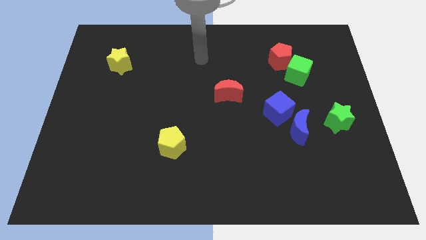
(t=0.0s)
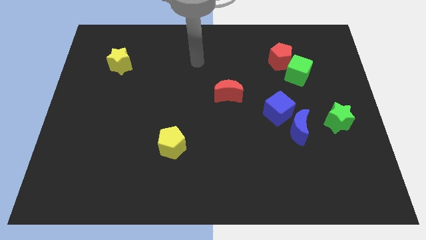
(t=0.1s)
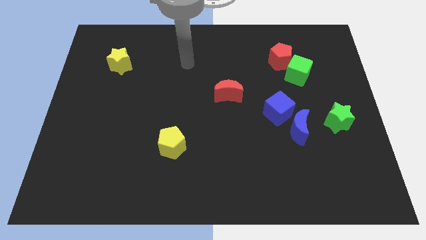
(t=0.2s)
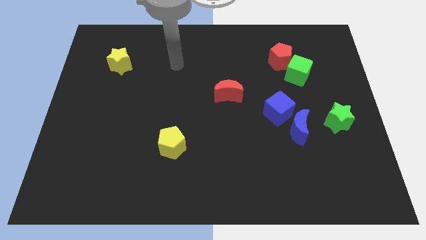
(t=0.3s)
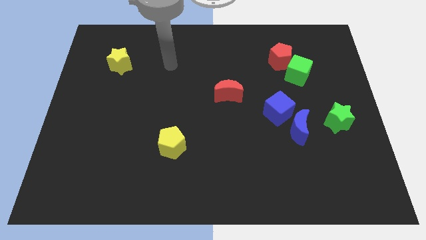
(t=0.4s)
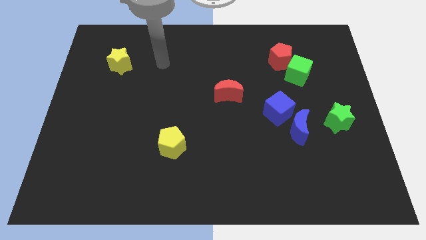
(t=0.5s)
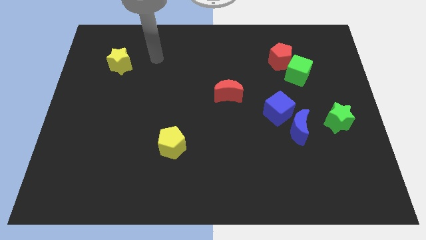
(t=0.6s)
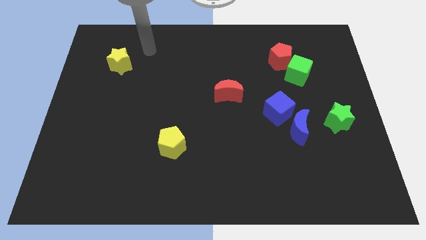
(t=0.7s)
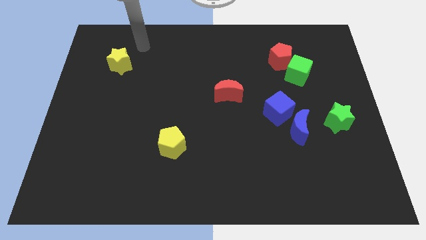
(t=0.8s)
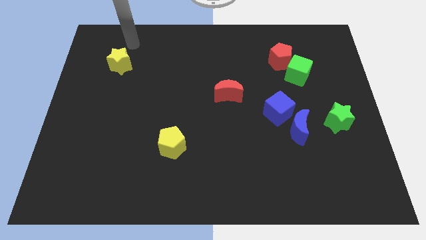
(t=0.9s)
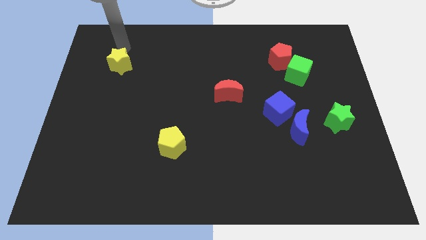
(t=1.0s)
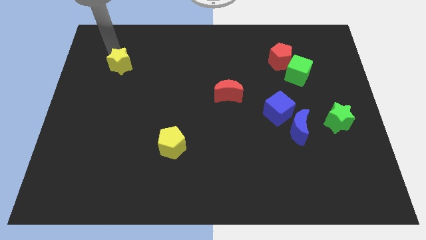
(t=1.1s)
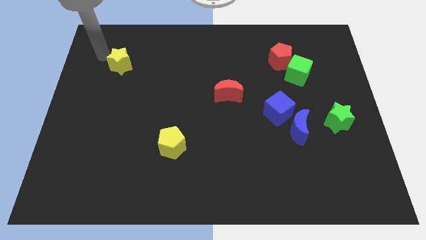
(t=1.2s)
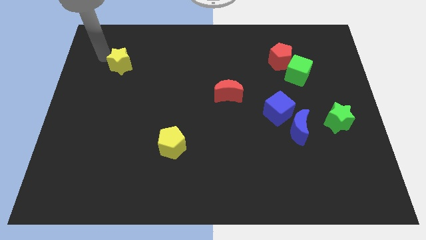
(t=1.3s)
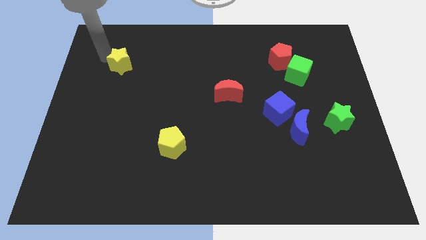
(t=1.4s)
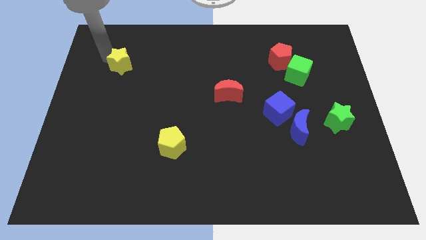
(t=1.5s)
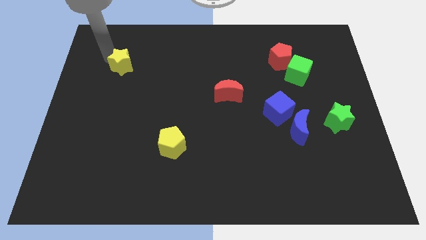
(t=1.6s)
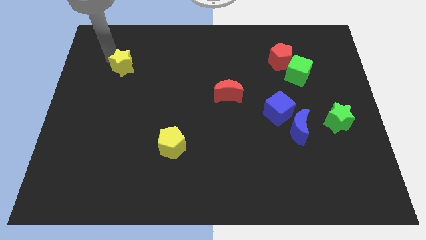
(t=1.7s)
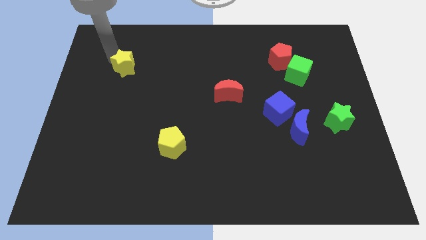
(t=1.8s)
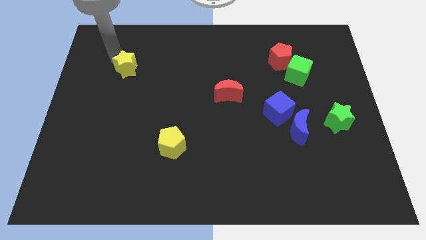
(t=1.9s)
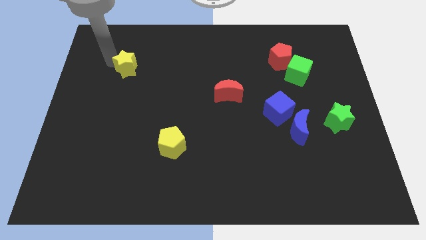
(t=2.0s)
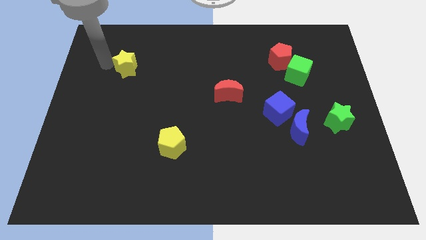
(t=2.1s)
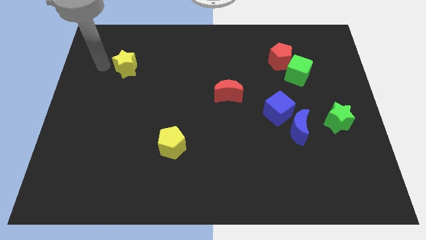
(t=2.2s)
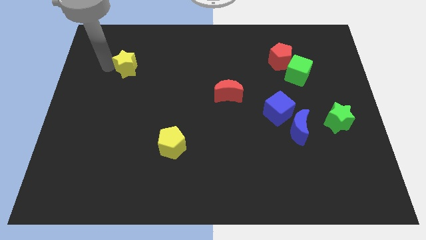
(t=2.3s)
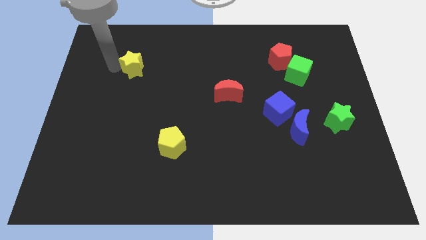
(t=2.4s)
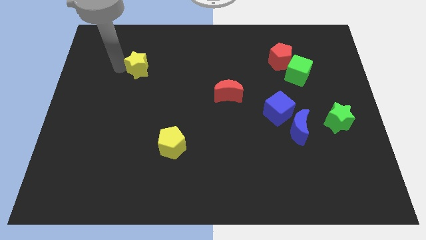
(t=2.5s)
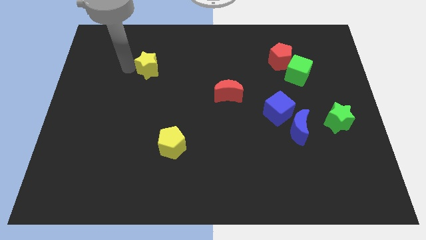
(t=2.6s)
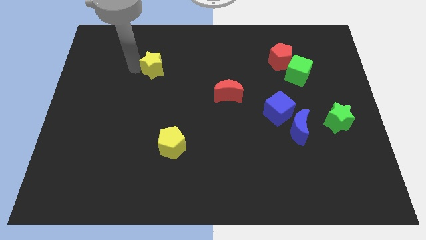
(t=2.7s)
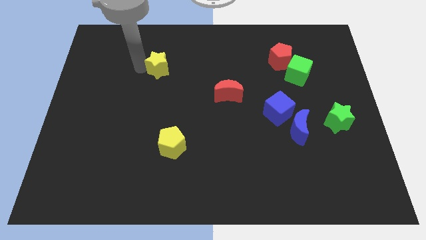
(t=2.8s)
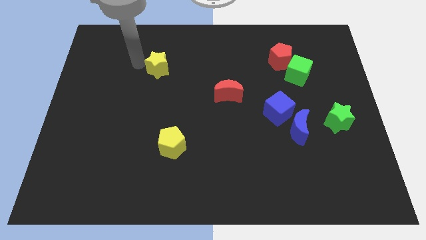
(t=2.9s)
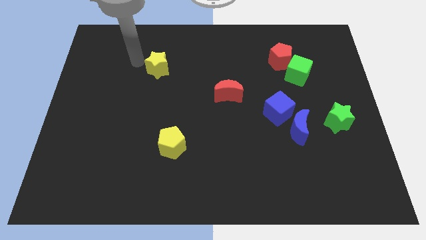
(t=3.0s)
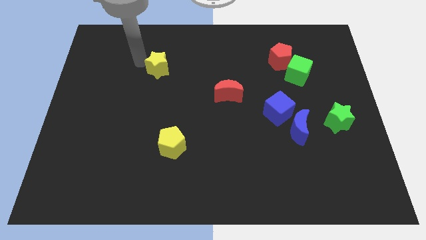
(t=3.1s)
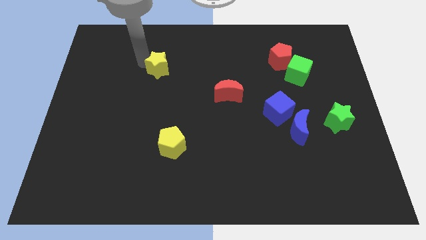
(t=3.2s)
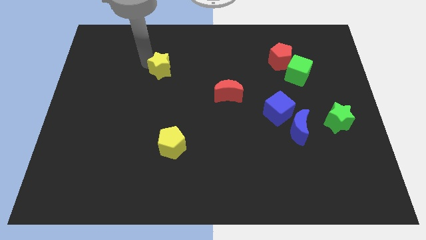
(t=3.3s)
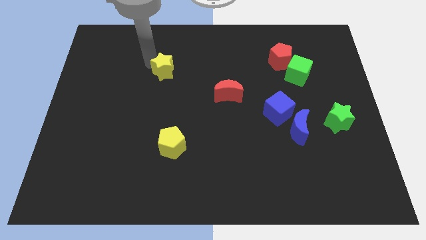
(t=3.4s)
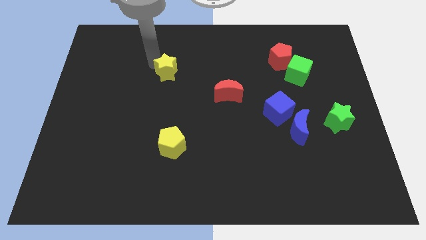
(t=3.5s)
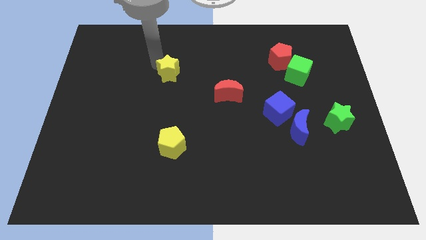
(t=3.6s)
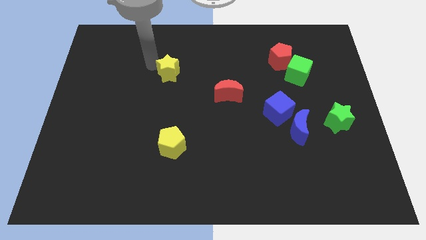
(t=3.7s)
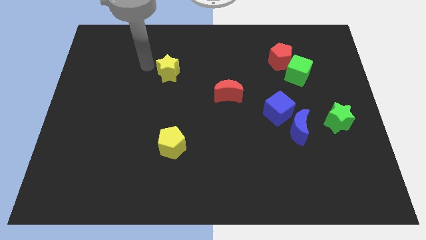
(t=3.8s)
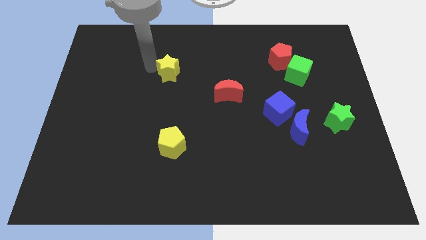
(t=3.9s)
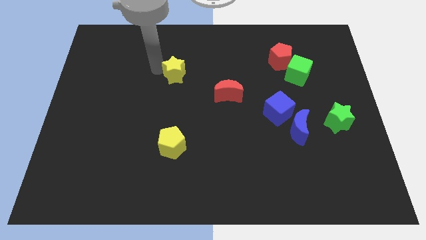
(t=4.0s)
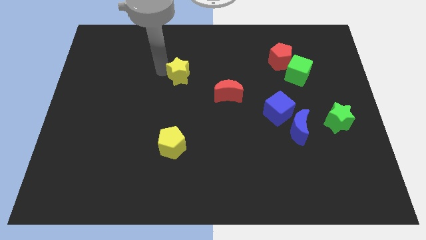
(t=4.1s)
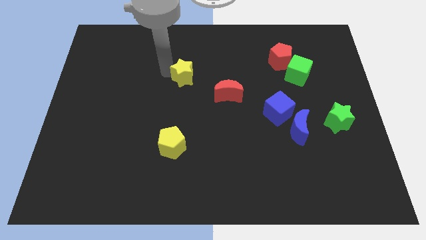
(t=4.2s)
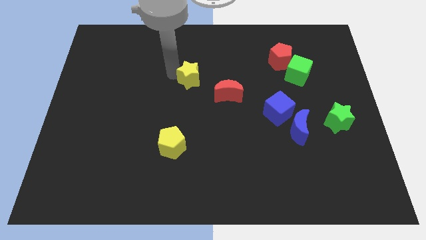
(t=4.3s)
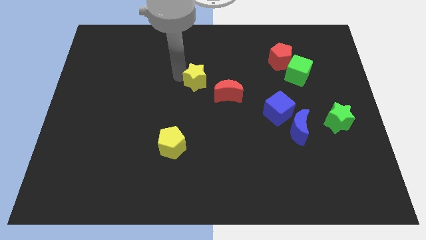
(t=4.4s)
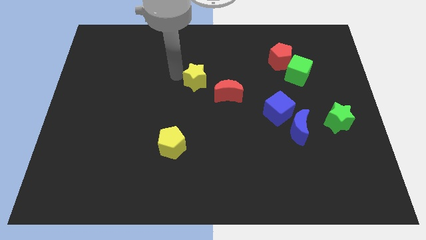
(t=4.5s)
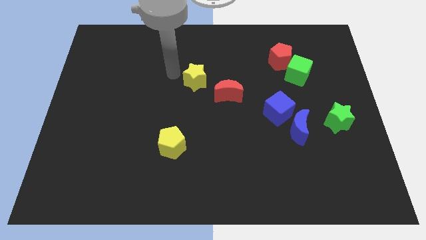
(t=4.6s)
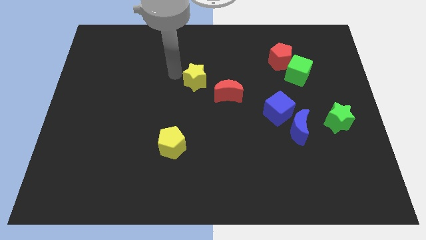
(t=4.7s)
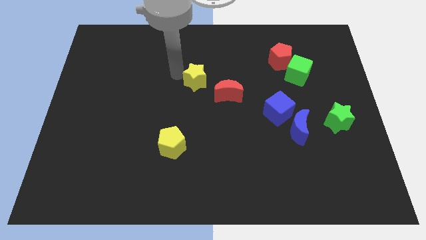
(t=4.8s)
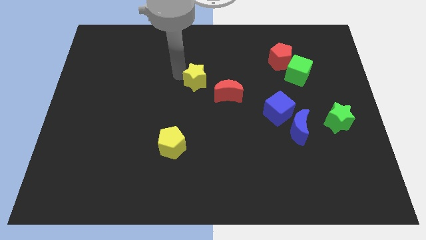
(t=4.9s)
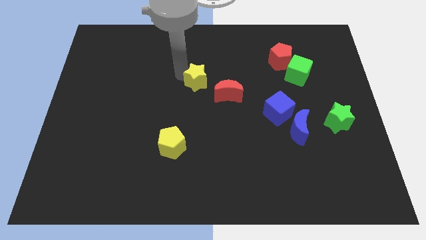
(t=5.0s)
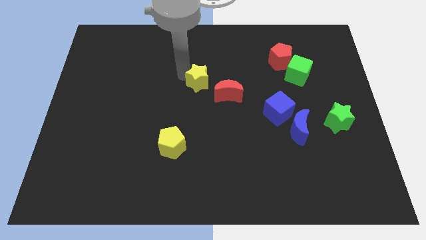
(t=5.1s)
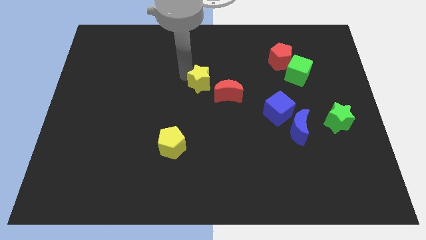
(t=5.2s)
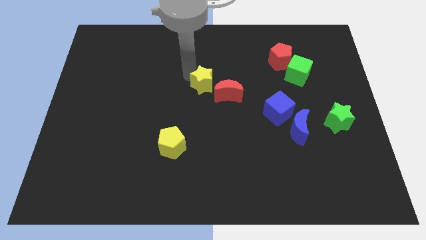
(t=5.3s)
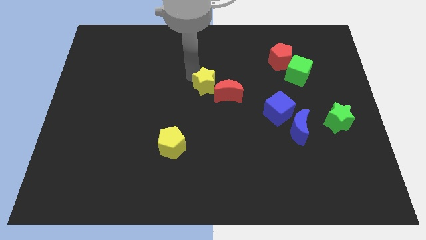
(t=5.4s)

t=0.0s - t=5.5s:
move the yellow star close to the red moon

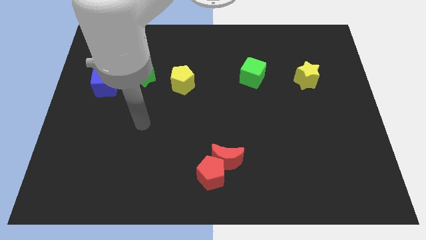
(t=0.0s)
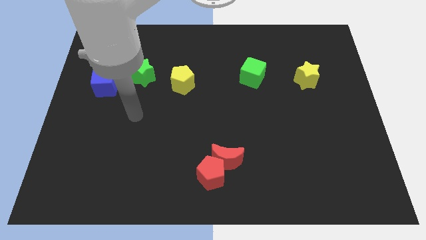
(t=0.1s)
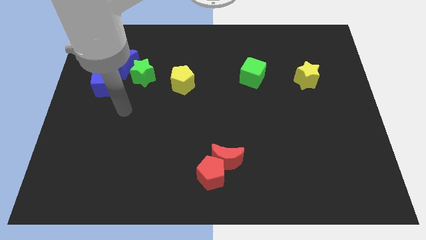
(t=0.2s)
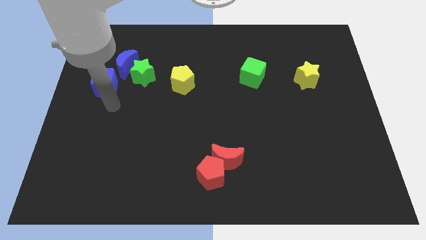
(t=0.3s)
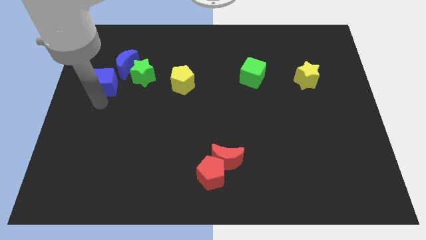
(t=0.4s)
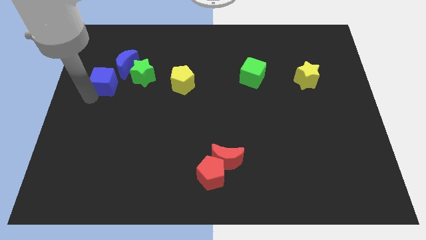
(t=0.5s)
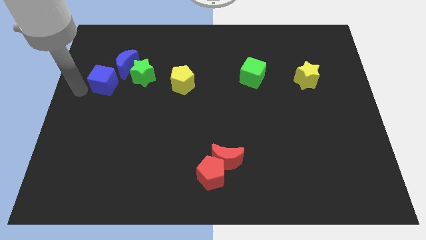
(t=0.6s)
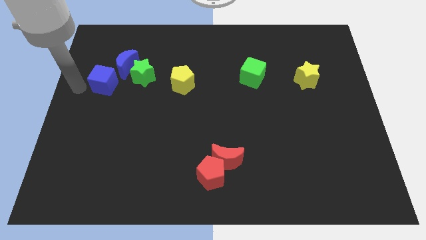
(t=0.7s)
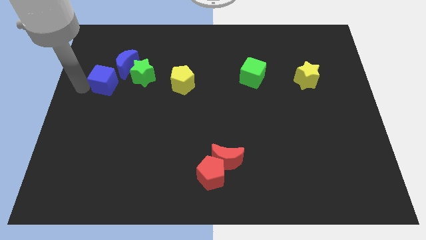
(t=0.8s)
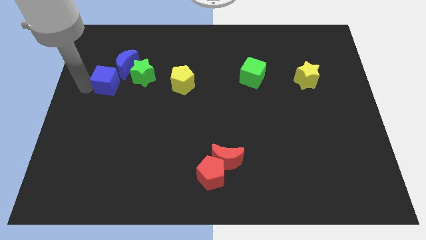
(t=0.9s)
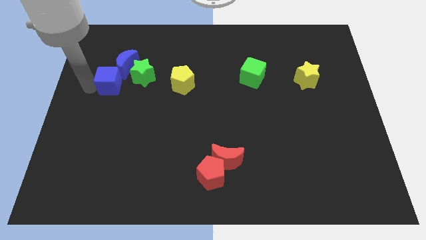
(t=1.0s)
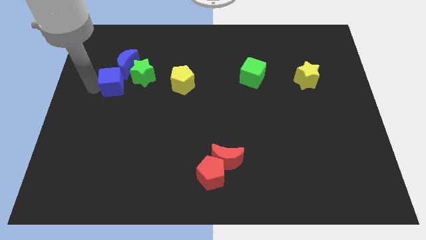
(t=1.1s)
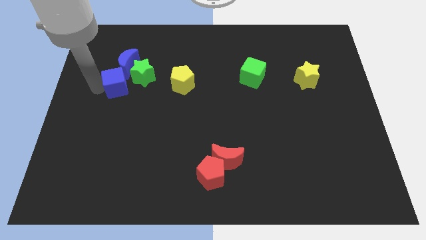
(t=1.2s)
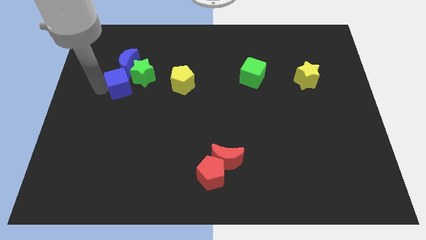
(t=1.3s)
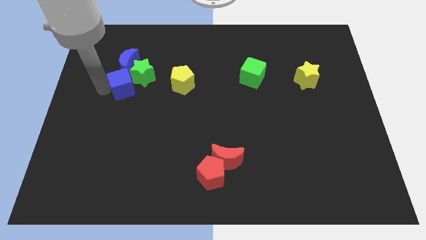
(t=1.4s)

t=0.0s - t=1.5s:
push the blue cube to the green star
